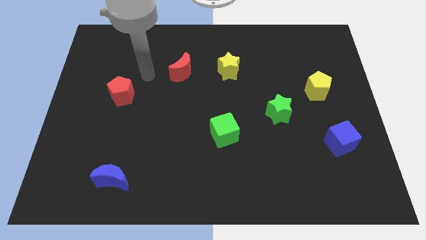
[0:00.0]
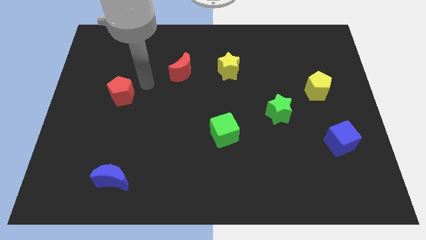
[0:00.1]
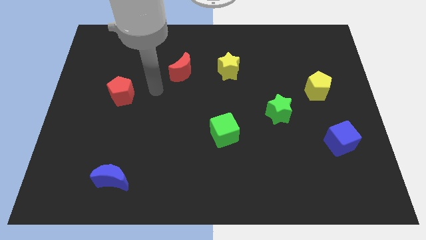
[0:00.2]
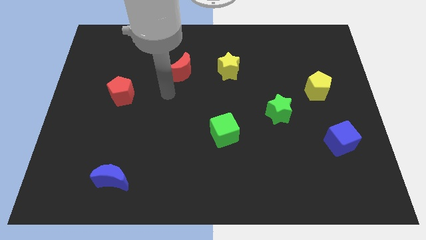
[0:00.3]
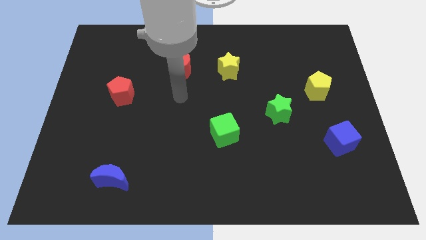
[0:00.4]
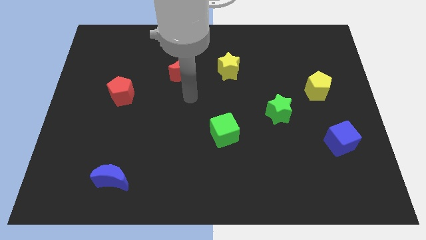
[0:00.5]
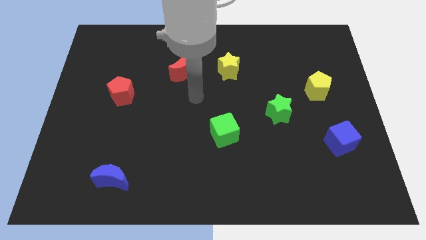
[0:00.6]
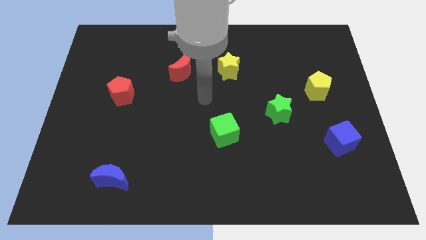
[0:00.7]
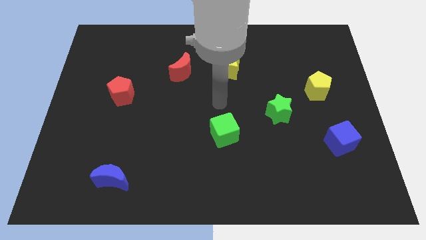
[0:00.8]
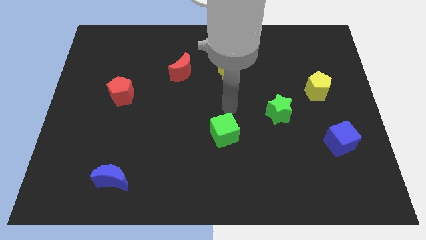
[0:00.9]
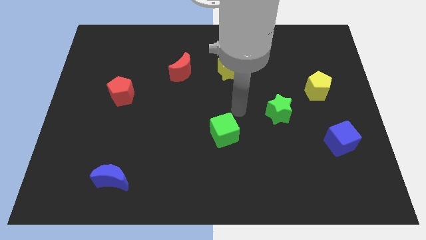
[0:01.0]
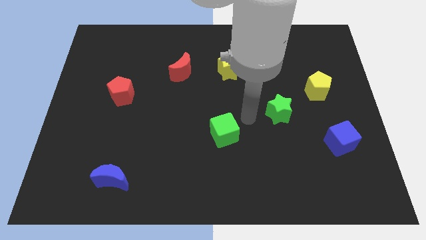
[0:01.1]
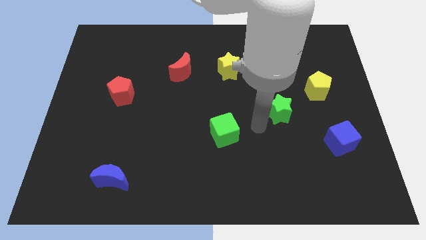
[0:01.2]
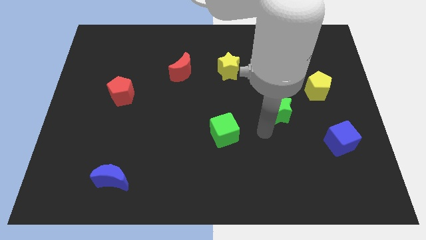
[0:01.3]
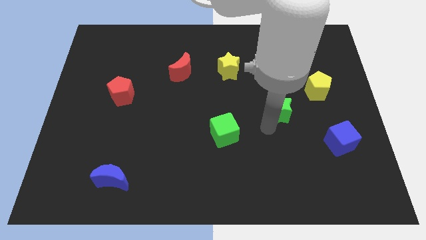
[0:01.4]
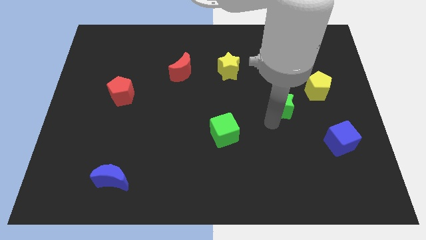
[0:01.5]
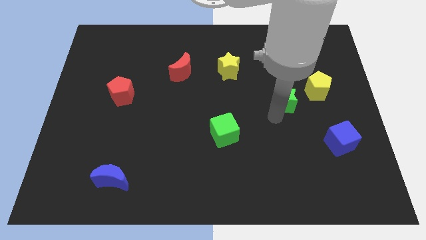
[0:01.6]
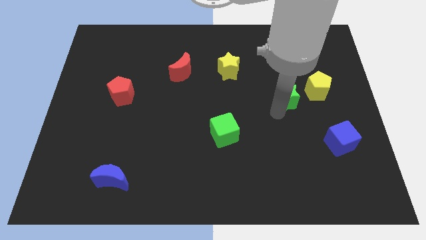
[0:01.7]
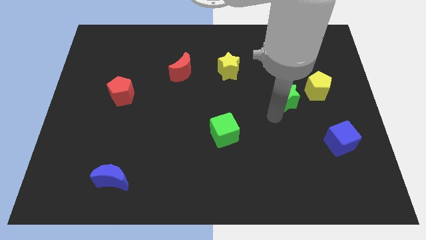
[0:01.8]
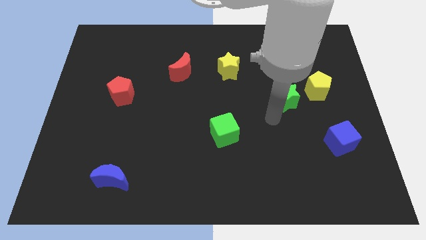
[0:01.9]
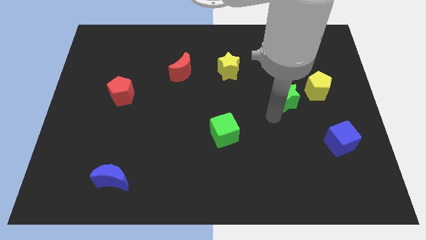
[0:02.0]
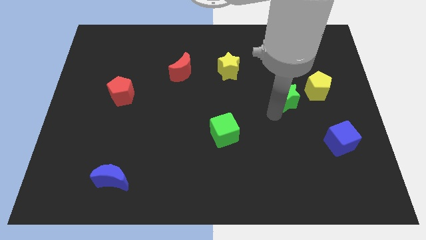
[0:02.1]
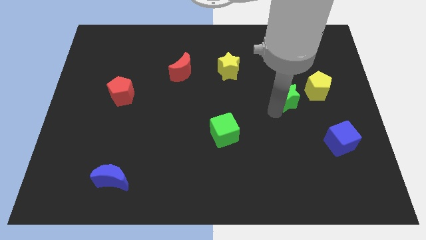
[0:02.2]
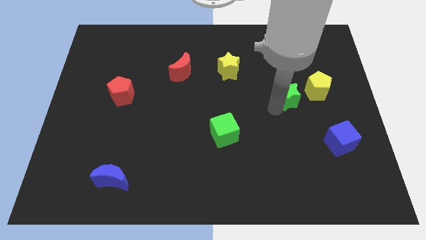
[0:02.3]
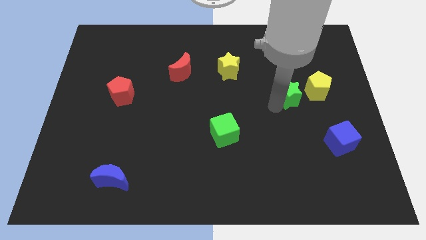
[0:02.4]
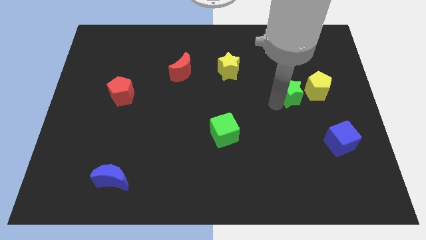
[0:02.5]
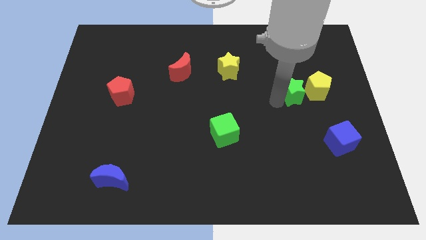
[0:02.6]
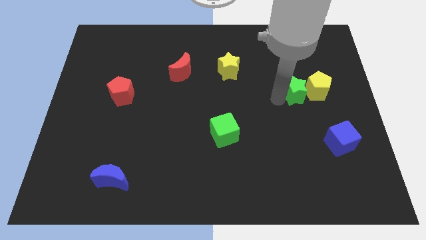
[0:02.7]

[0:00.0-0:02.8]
move the green star diagonally upwards and right slightly

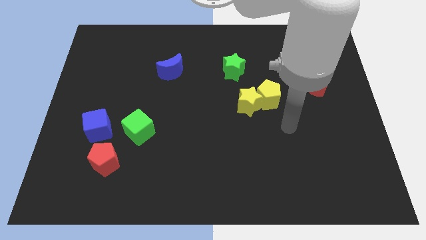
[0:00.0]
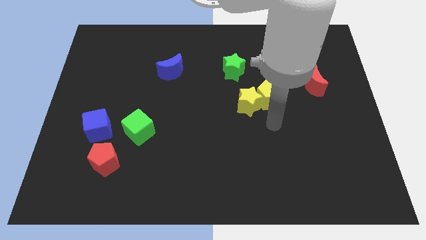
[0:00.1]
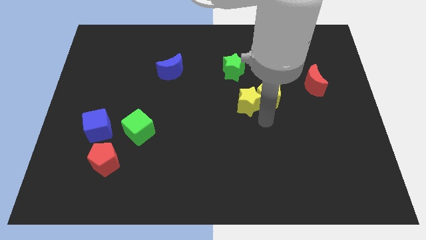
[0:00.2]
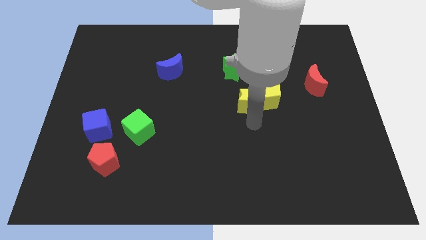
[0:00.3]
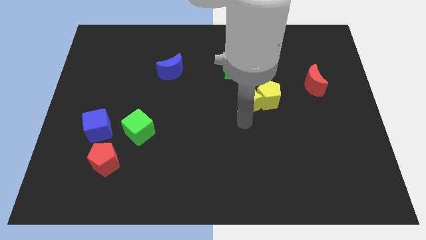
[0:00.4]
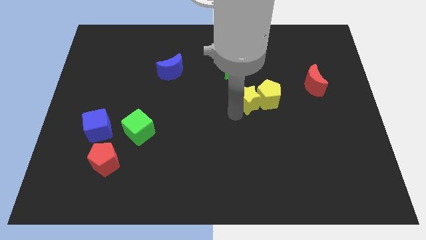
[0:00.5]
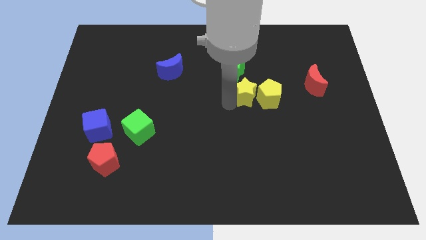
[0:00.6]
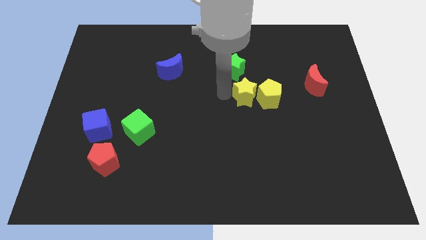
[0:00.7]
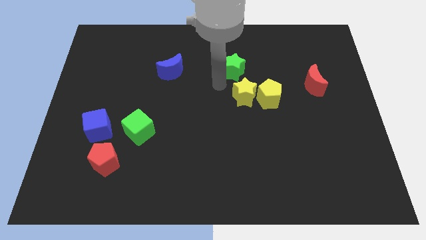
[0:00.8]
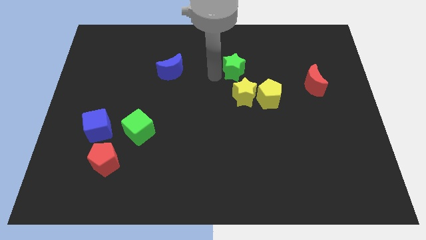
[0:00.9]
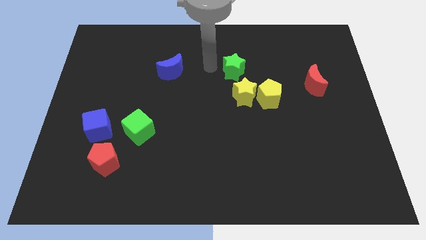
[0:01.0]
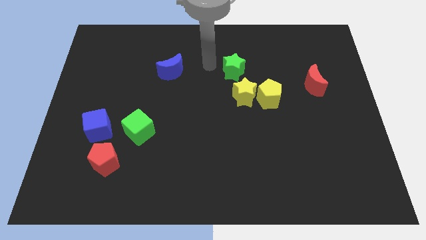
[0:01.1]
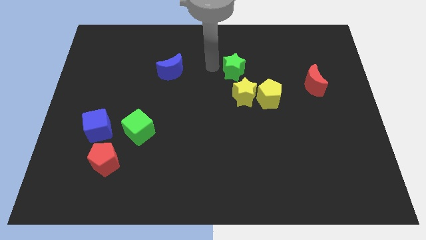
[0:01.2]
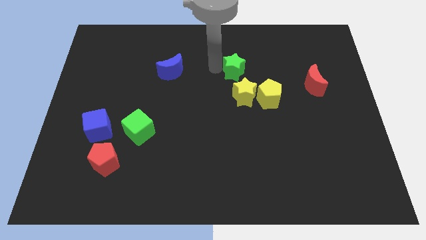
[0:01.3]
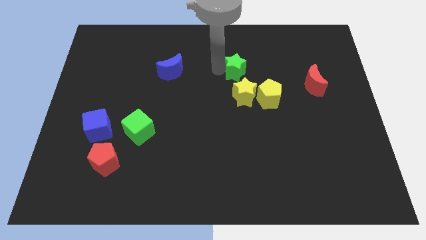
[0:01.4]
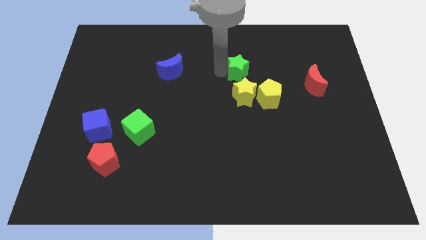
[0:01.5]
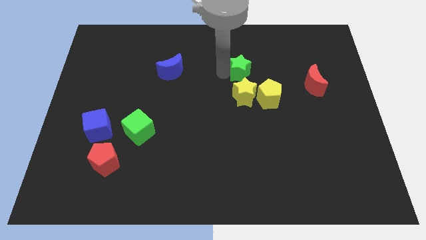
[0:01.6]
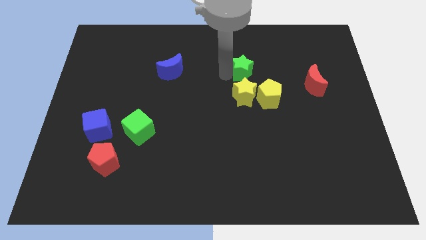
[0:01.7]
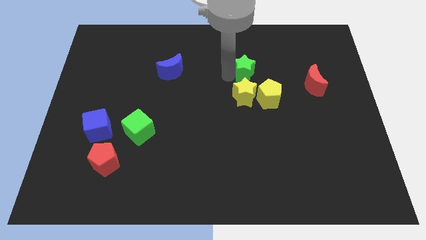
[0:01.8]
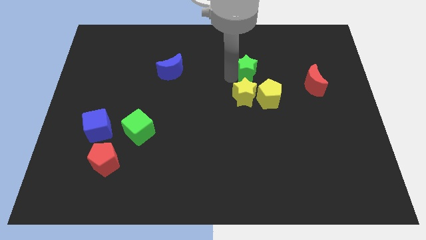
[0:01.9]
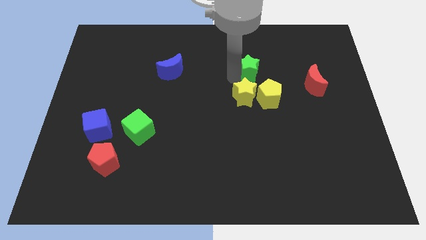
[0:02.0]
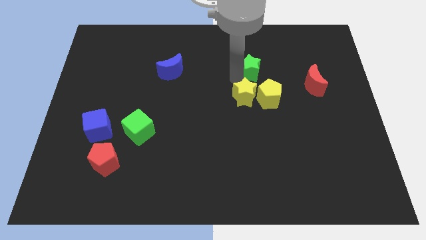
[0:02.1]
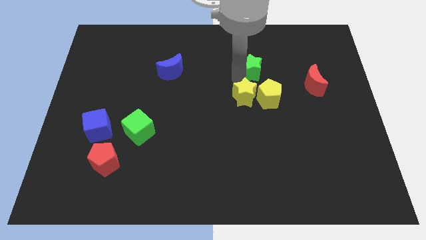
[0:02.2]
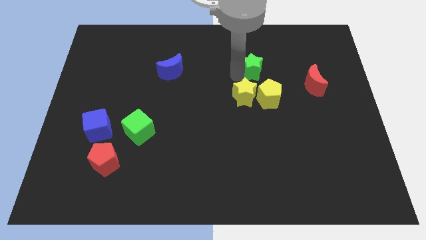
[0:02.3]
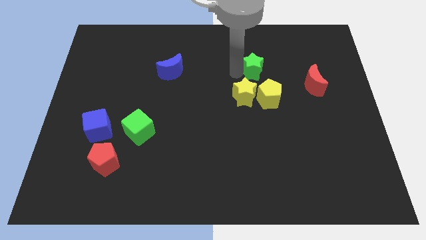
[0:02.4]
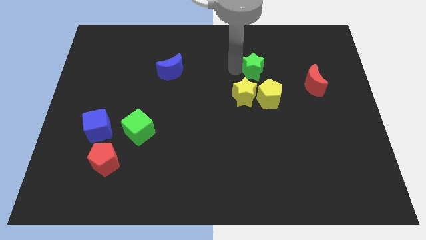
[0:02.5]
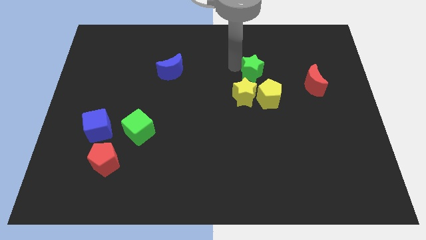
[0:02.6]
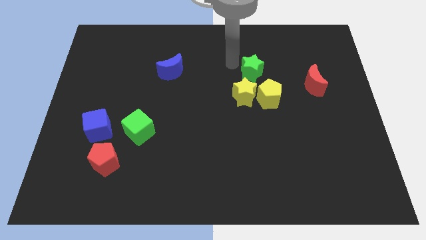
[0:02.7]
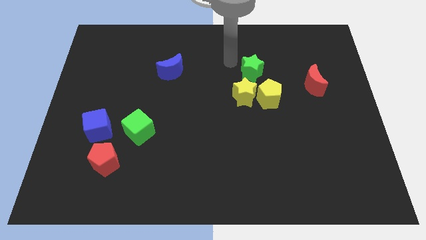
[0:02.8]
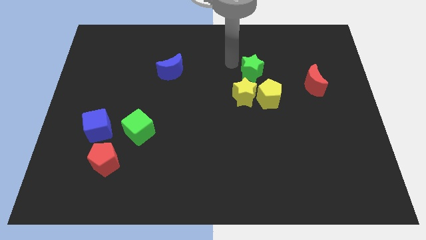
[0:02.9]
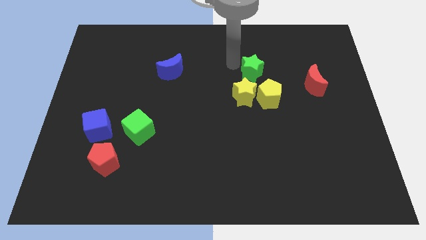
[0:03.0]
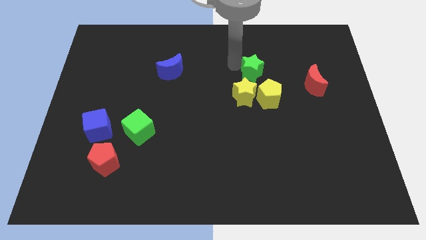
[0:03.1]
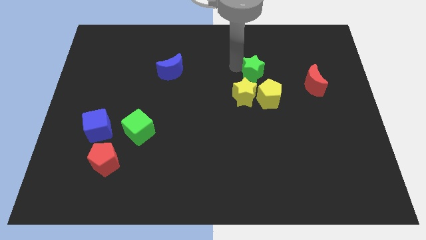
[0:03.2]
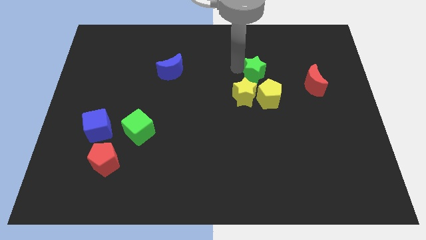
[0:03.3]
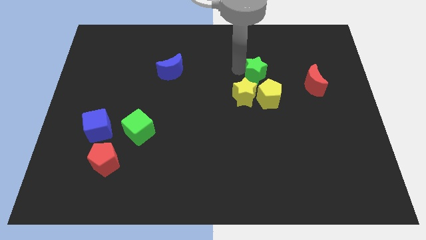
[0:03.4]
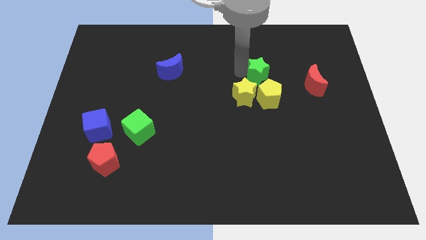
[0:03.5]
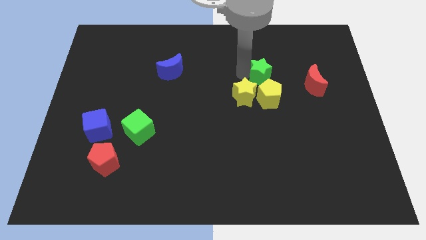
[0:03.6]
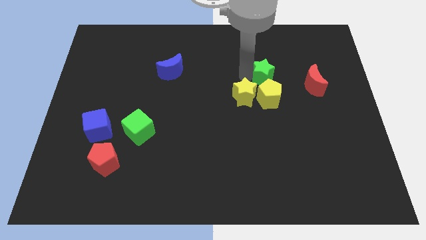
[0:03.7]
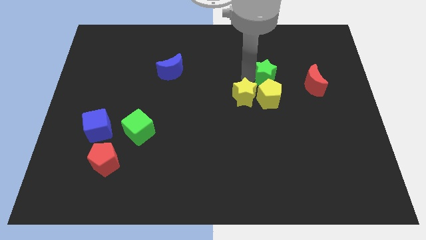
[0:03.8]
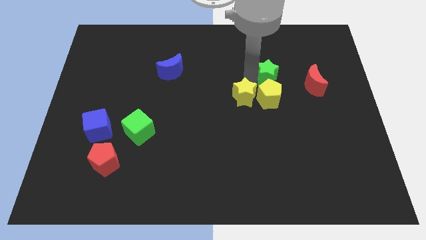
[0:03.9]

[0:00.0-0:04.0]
slightly push the green star downwards and to the right

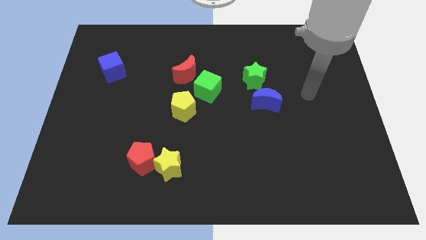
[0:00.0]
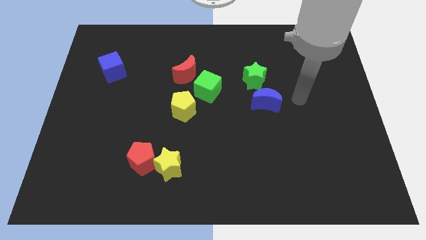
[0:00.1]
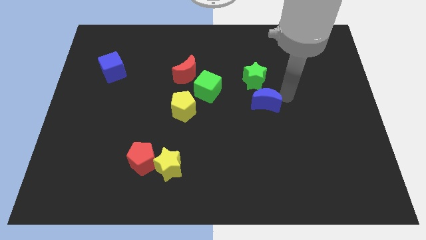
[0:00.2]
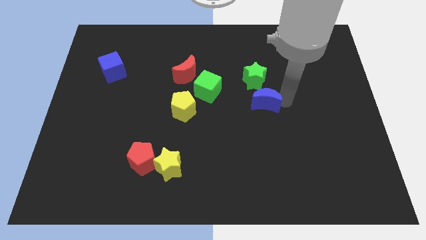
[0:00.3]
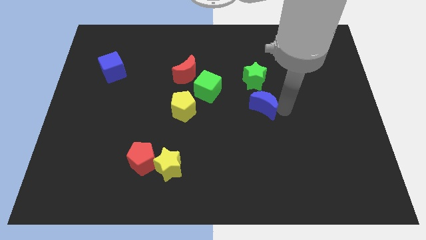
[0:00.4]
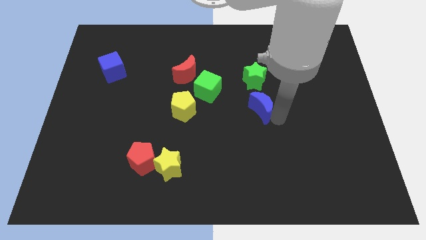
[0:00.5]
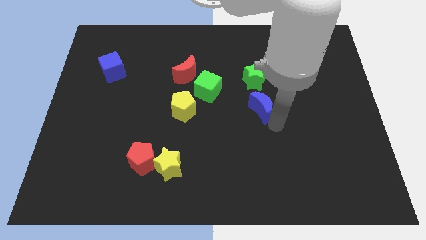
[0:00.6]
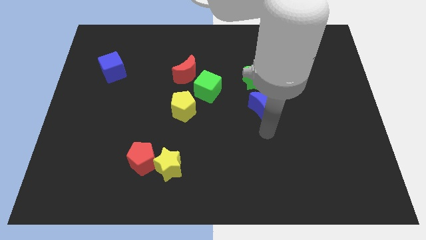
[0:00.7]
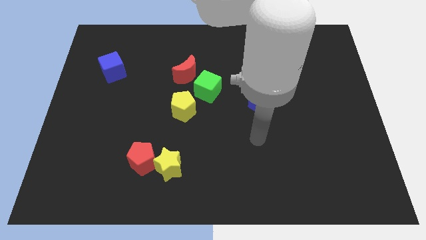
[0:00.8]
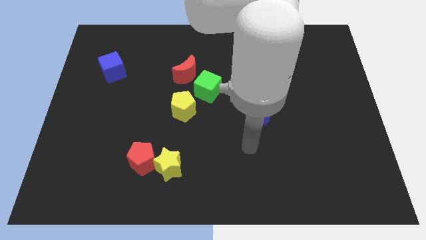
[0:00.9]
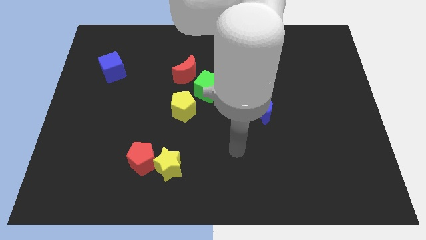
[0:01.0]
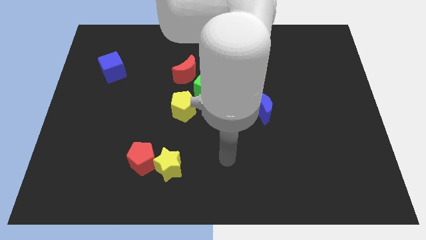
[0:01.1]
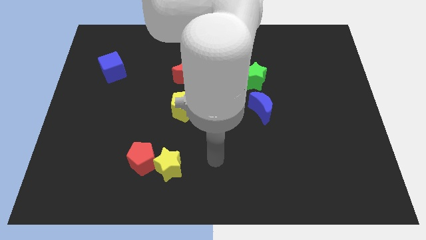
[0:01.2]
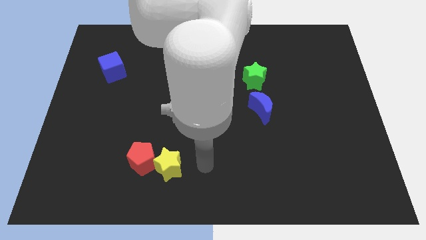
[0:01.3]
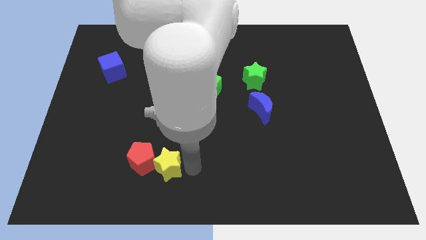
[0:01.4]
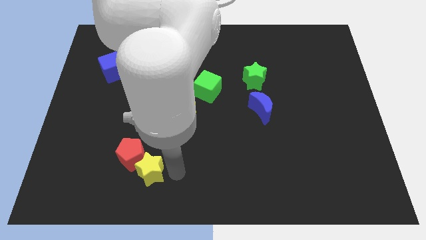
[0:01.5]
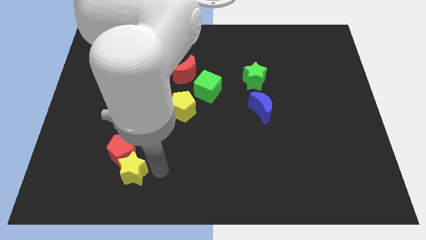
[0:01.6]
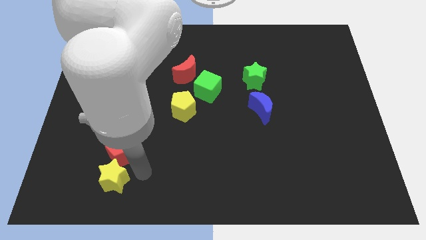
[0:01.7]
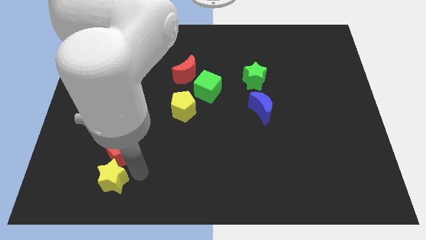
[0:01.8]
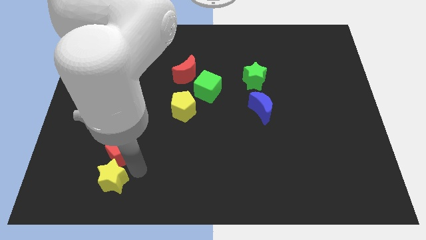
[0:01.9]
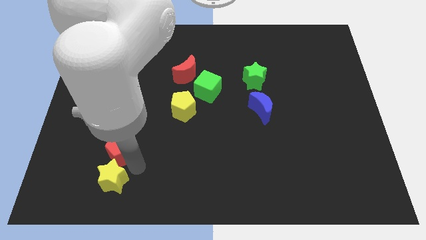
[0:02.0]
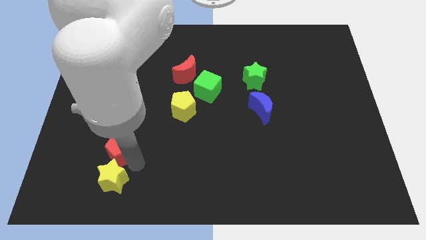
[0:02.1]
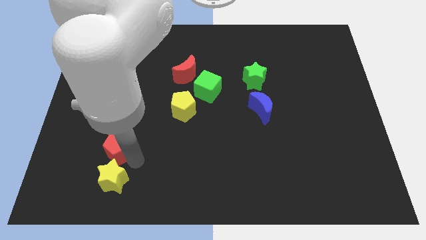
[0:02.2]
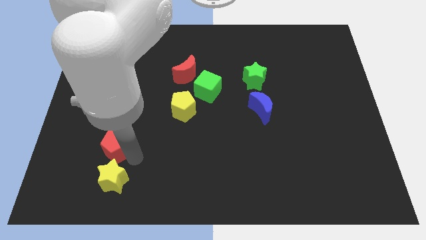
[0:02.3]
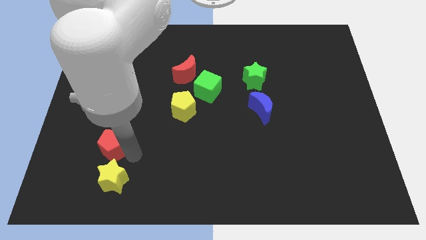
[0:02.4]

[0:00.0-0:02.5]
slide the red pentagon a little bit diagonally upwards and to the left
